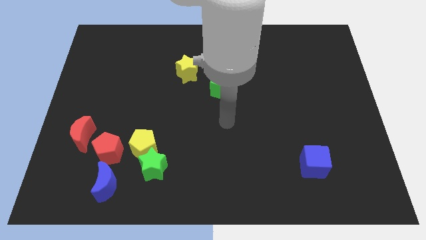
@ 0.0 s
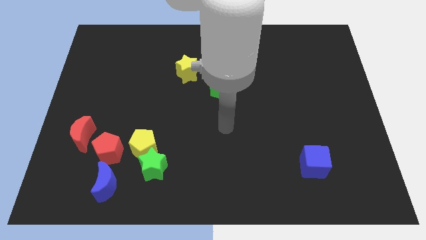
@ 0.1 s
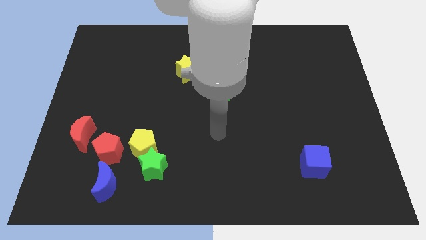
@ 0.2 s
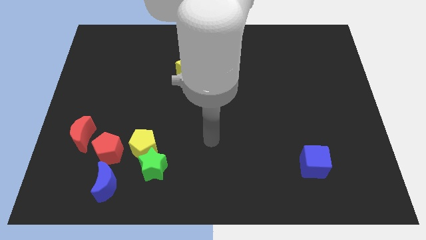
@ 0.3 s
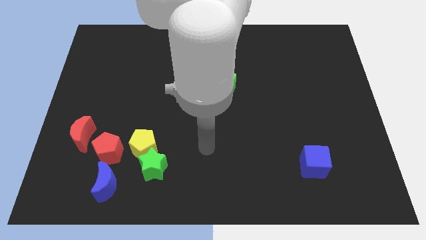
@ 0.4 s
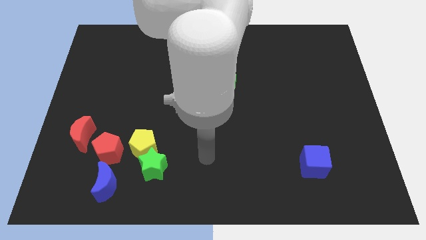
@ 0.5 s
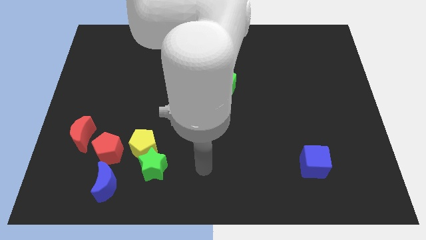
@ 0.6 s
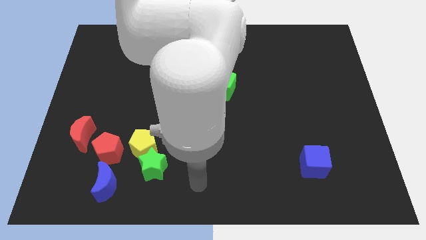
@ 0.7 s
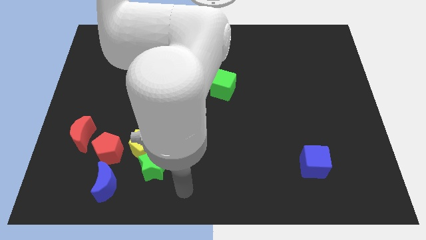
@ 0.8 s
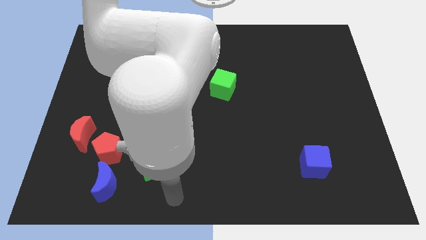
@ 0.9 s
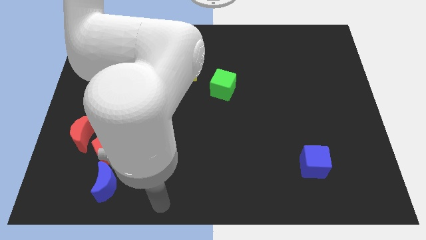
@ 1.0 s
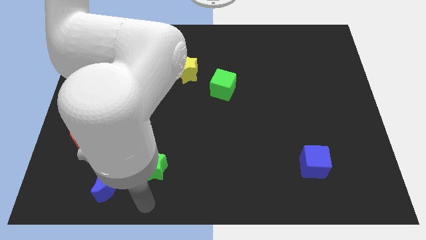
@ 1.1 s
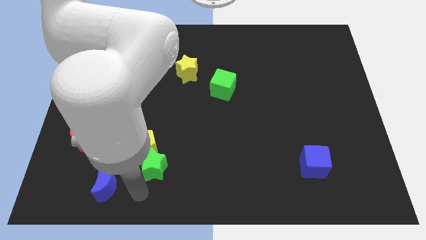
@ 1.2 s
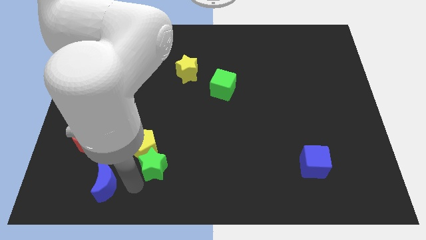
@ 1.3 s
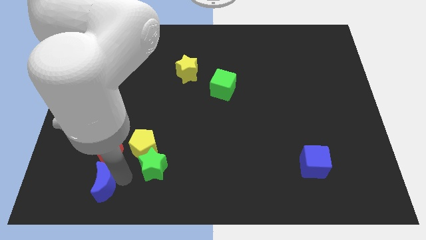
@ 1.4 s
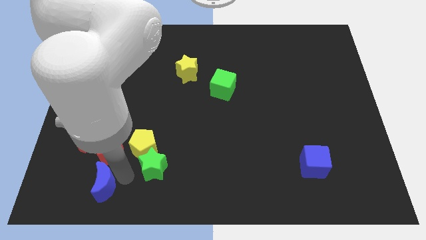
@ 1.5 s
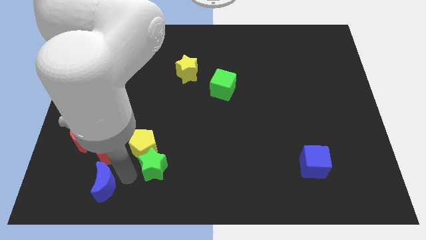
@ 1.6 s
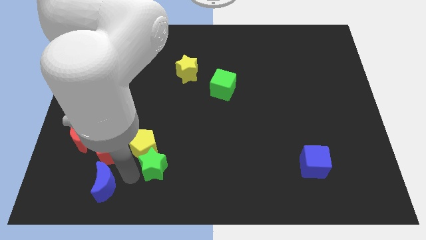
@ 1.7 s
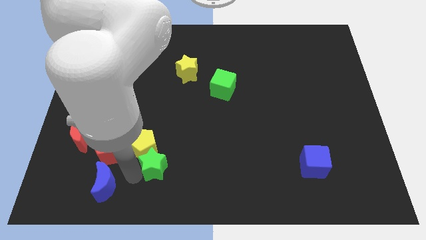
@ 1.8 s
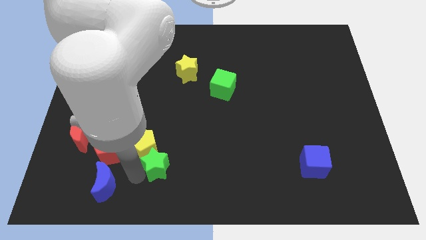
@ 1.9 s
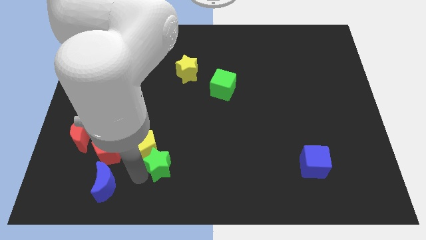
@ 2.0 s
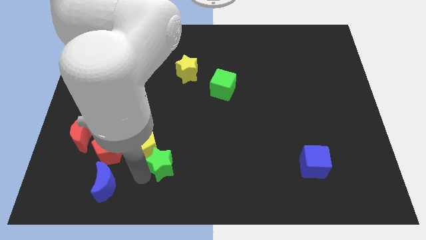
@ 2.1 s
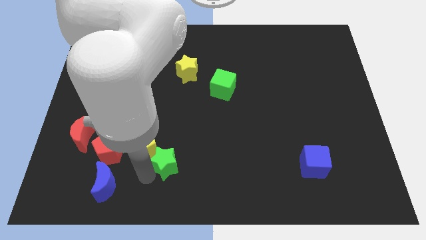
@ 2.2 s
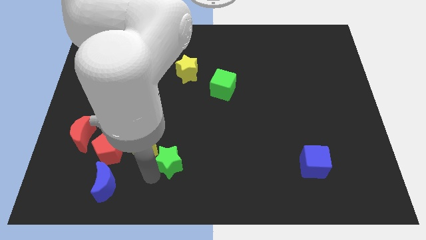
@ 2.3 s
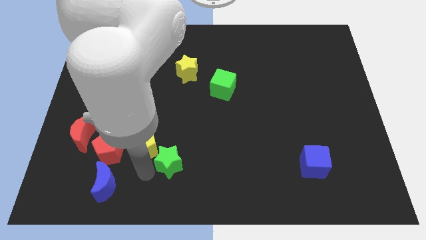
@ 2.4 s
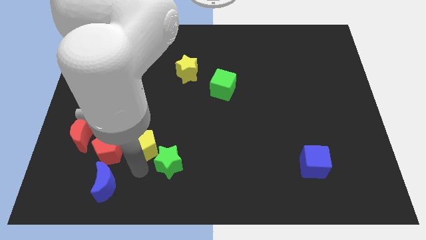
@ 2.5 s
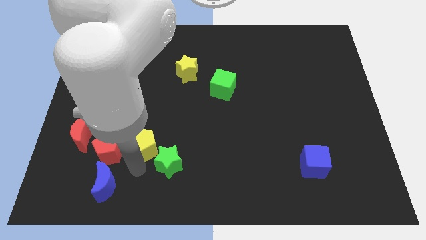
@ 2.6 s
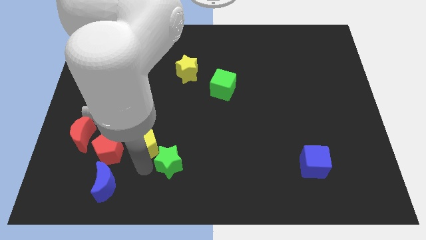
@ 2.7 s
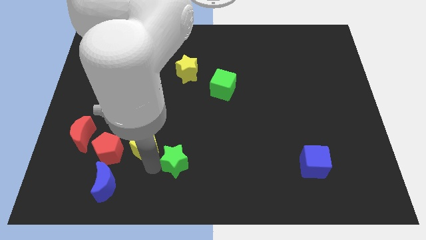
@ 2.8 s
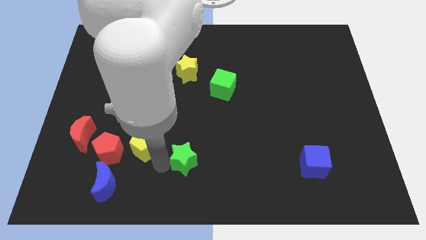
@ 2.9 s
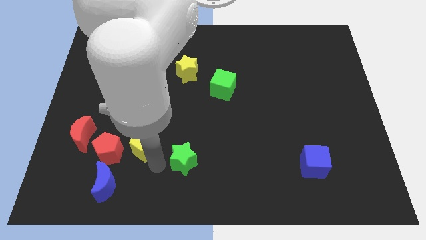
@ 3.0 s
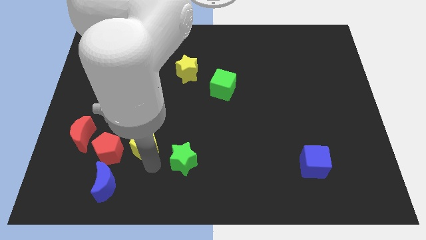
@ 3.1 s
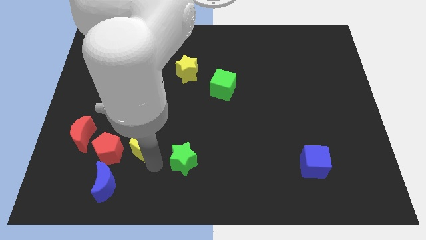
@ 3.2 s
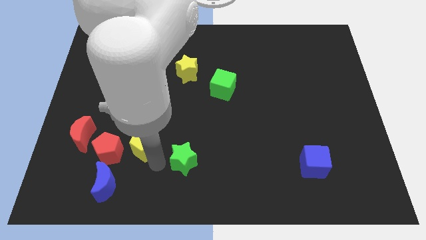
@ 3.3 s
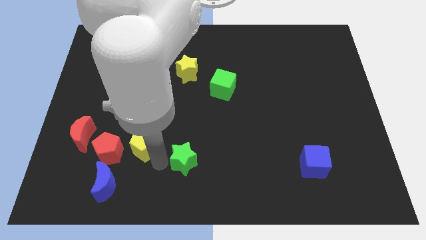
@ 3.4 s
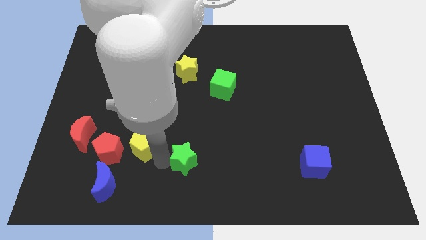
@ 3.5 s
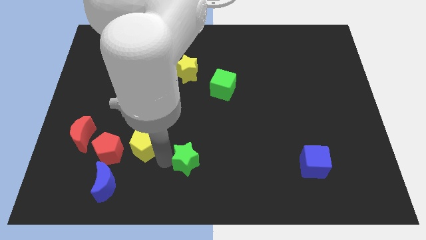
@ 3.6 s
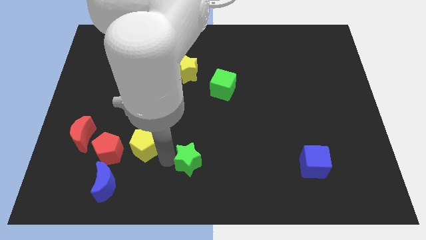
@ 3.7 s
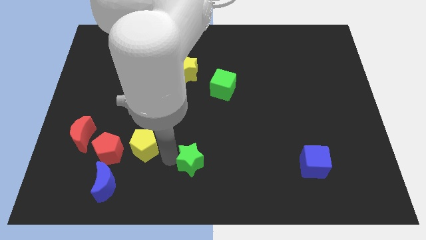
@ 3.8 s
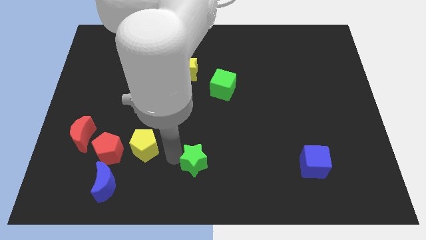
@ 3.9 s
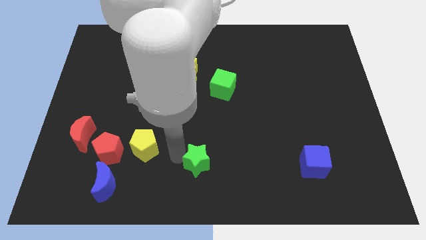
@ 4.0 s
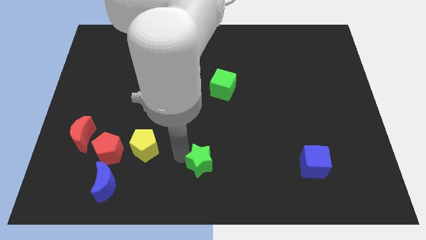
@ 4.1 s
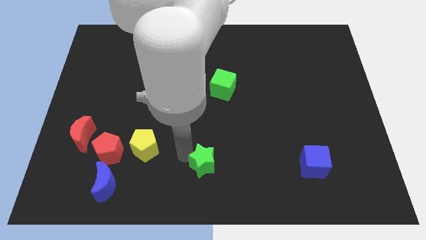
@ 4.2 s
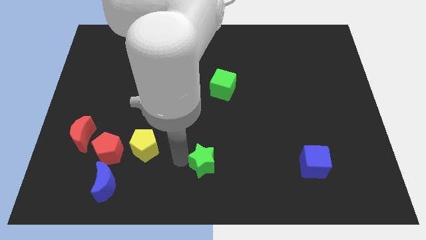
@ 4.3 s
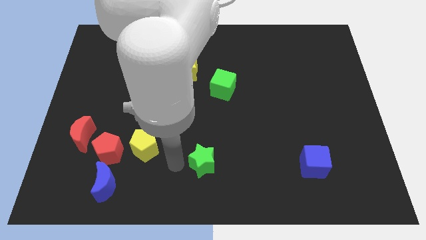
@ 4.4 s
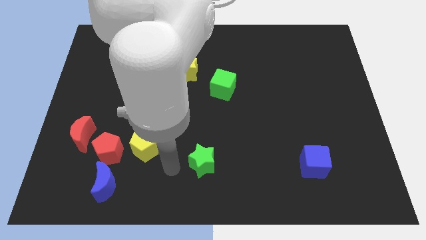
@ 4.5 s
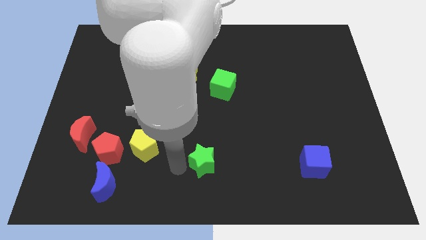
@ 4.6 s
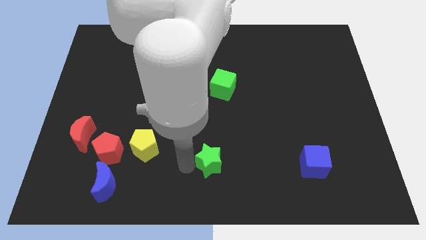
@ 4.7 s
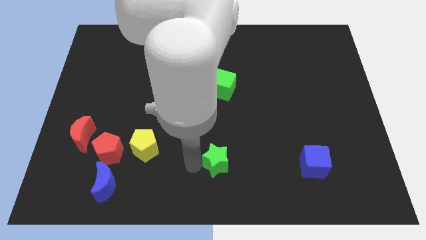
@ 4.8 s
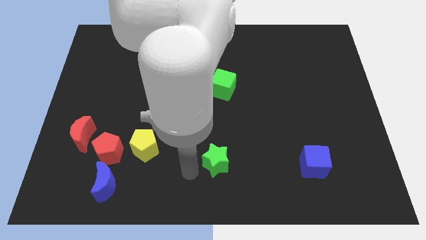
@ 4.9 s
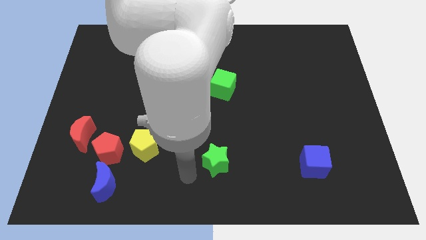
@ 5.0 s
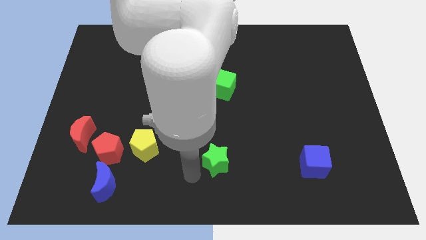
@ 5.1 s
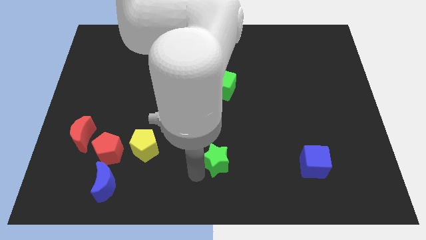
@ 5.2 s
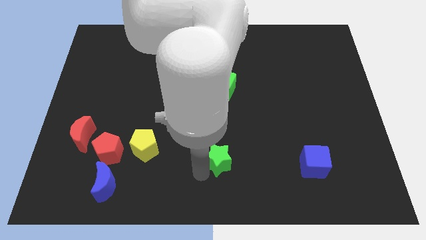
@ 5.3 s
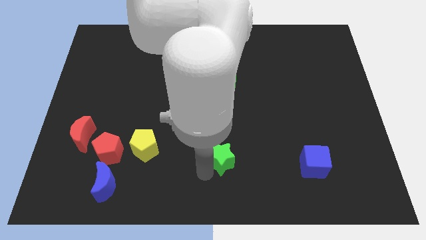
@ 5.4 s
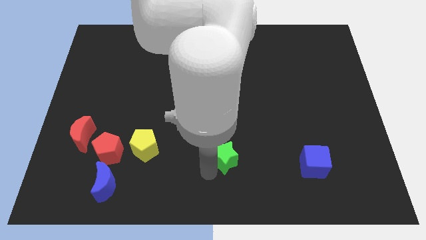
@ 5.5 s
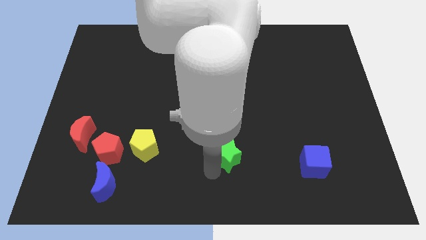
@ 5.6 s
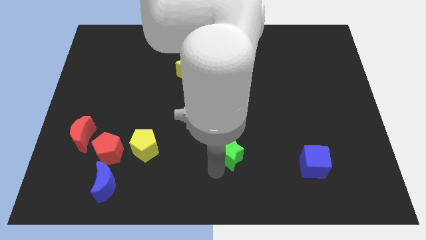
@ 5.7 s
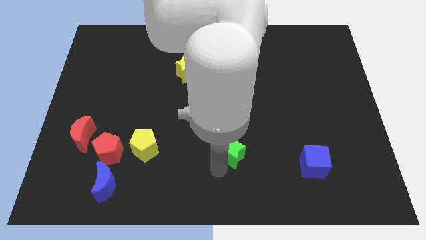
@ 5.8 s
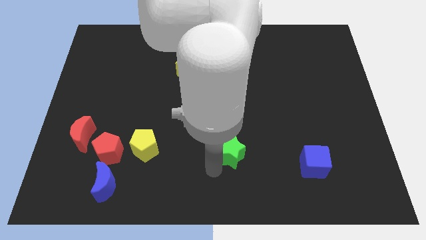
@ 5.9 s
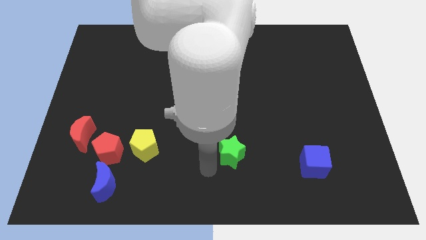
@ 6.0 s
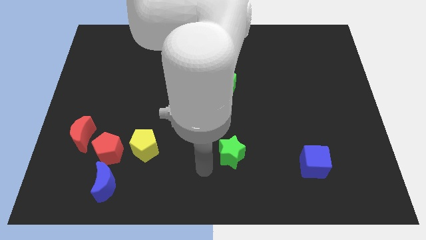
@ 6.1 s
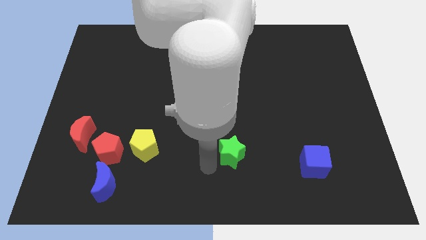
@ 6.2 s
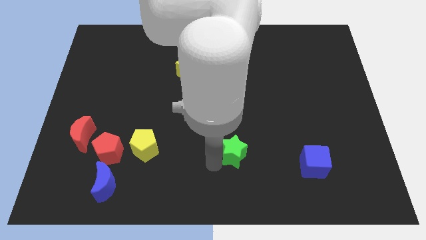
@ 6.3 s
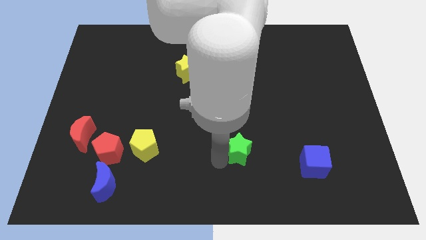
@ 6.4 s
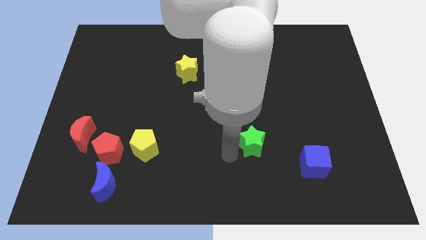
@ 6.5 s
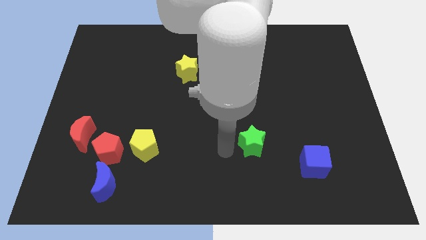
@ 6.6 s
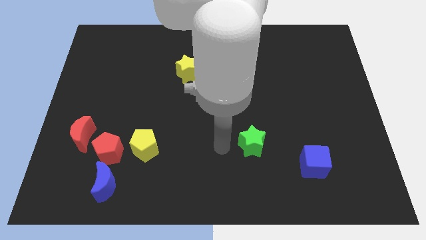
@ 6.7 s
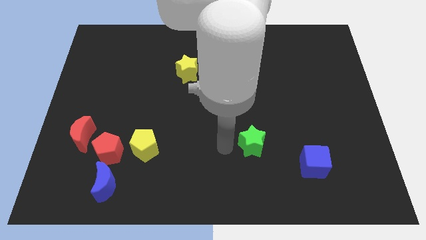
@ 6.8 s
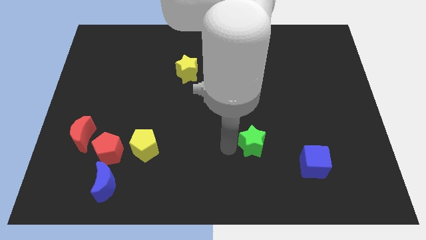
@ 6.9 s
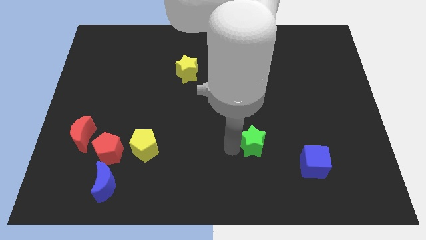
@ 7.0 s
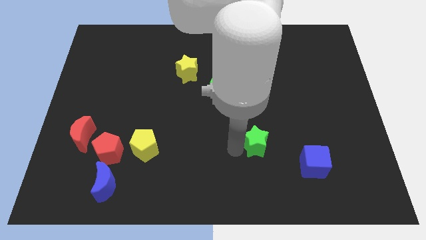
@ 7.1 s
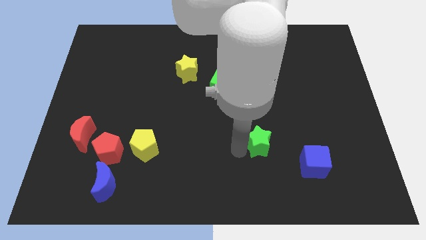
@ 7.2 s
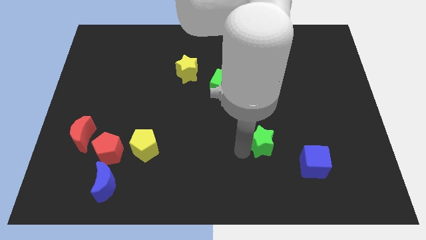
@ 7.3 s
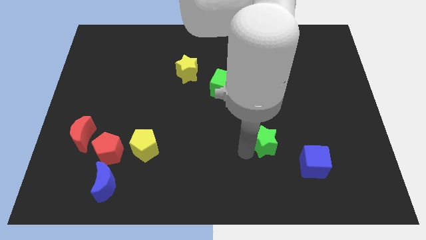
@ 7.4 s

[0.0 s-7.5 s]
put the green star to the top left of the blue cube

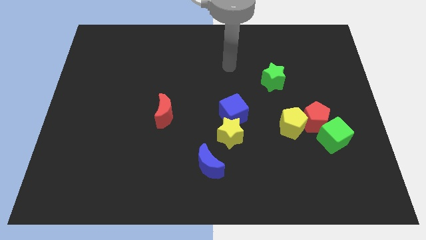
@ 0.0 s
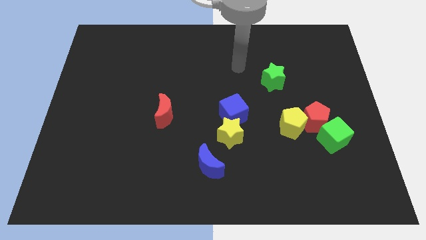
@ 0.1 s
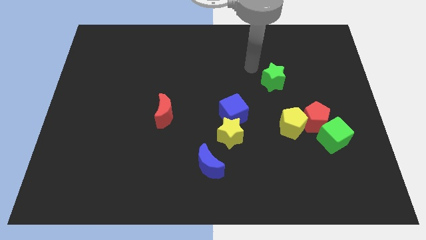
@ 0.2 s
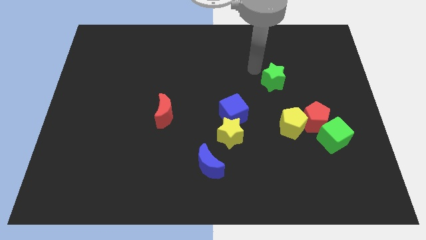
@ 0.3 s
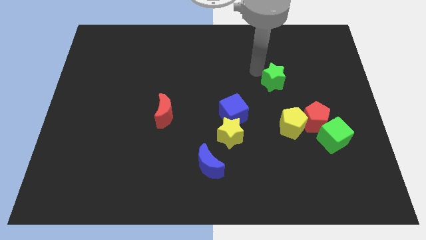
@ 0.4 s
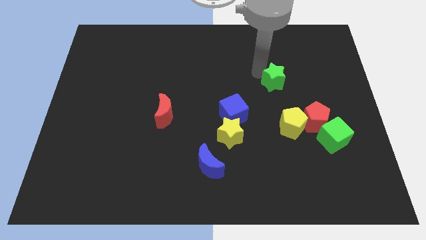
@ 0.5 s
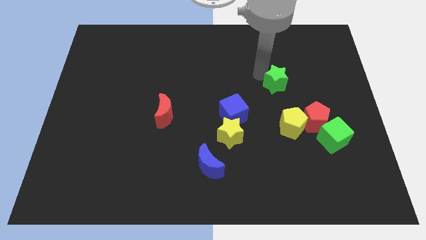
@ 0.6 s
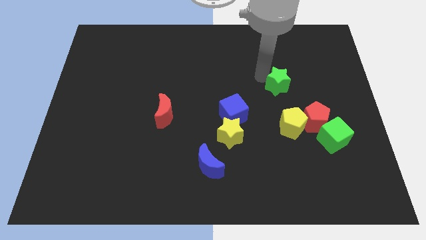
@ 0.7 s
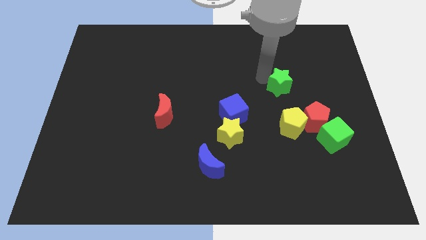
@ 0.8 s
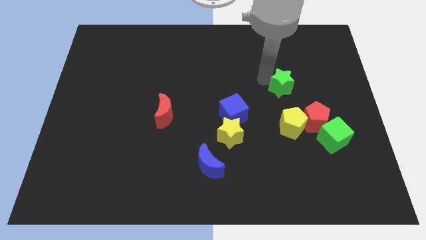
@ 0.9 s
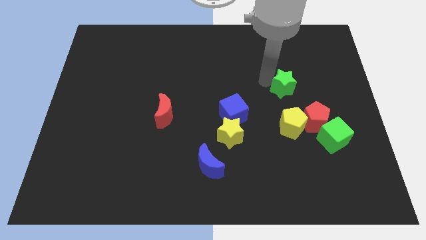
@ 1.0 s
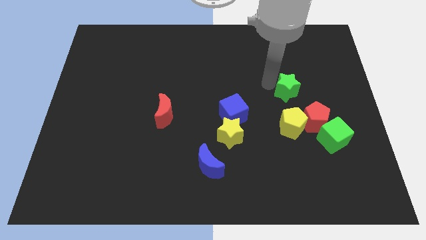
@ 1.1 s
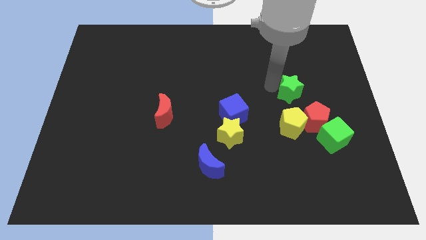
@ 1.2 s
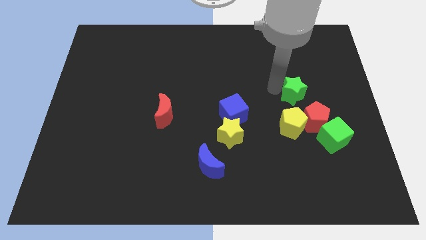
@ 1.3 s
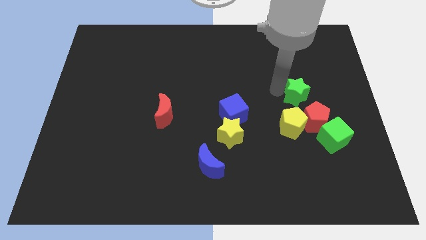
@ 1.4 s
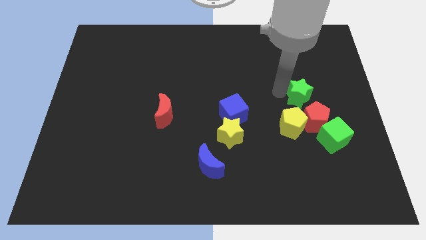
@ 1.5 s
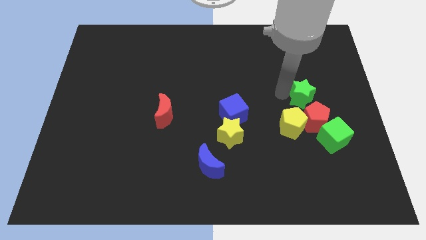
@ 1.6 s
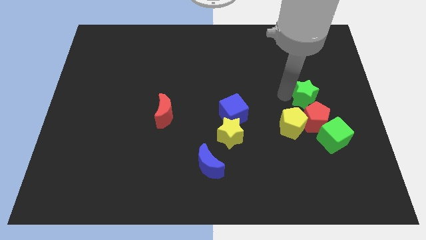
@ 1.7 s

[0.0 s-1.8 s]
push the green star to the top side of the green cube
